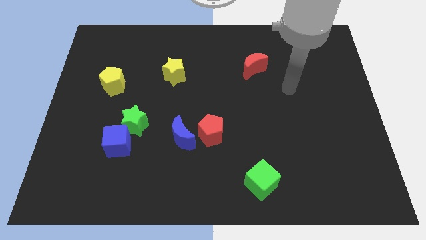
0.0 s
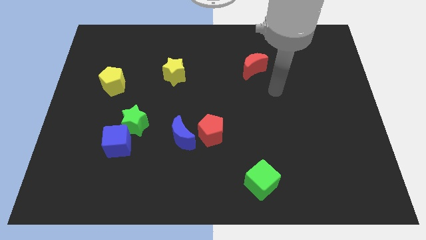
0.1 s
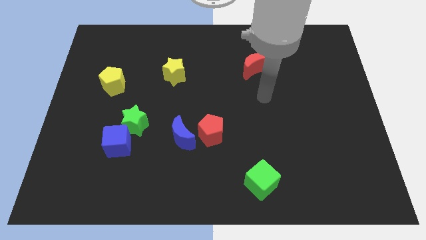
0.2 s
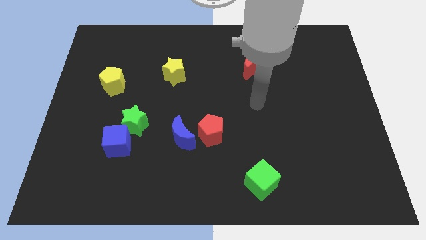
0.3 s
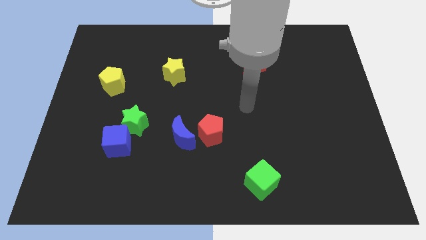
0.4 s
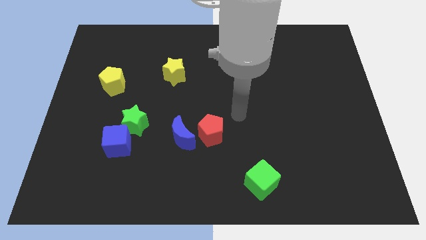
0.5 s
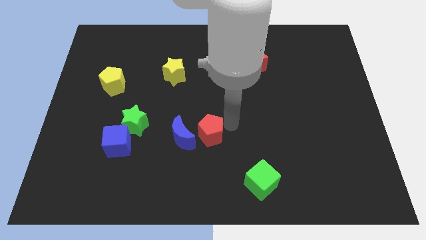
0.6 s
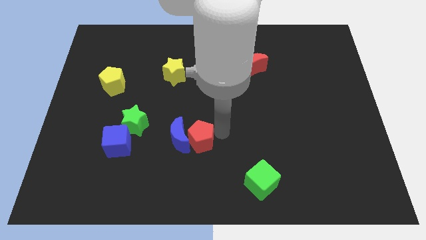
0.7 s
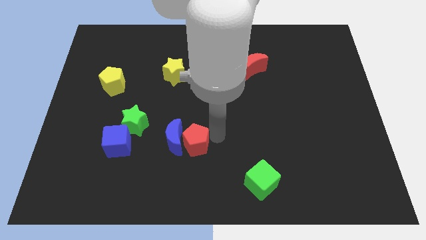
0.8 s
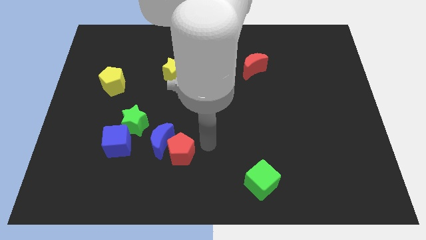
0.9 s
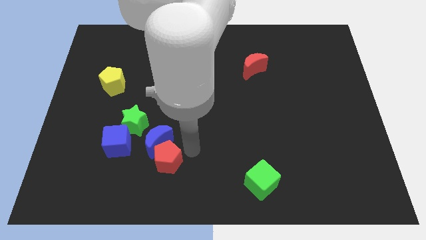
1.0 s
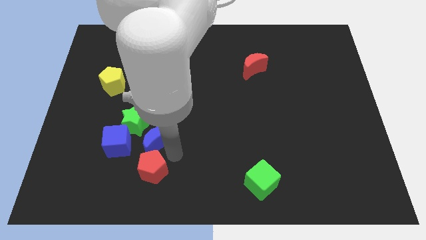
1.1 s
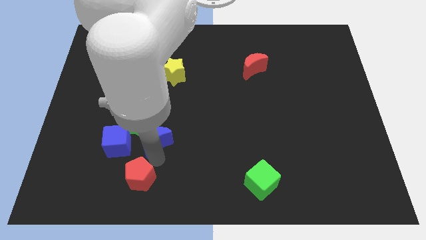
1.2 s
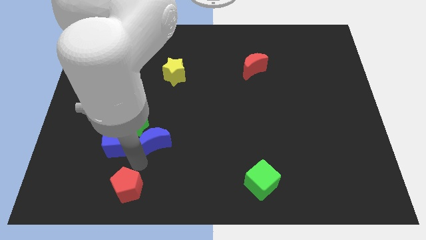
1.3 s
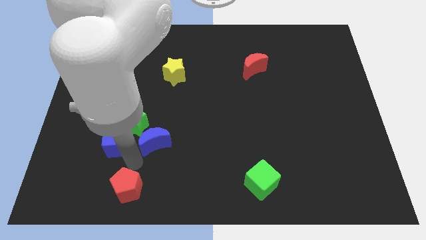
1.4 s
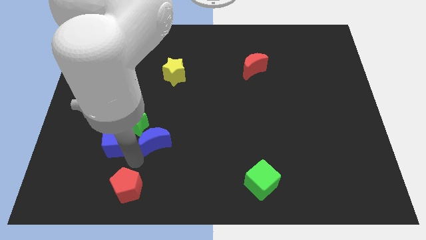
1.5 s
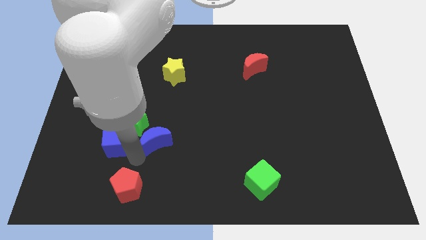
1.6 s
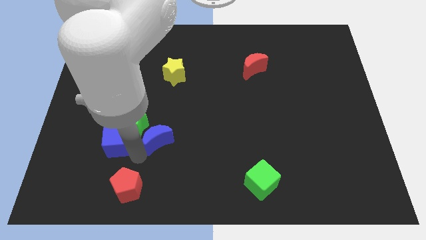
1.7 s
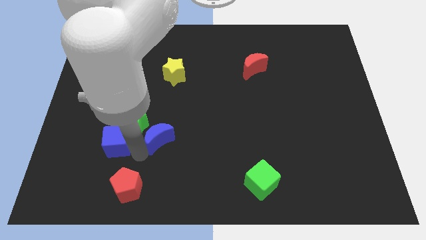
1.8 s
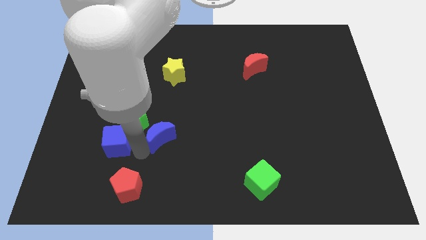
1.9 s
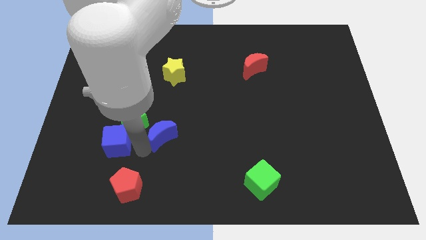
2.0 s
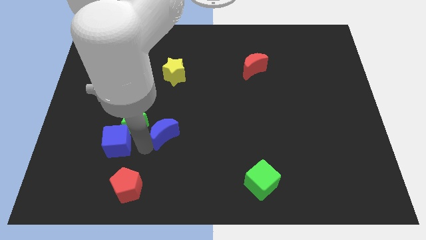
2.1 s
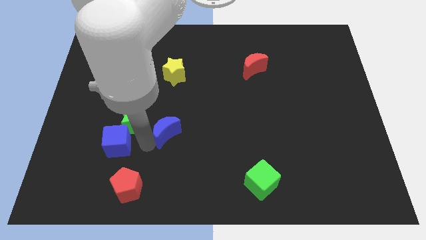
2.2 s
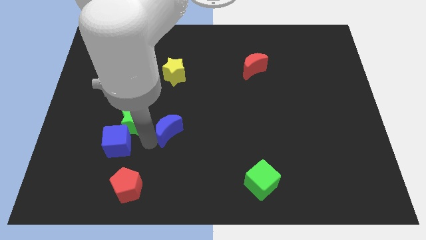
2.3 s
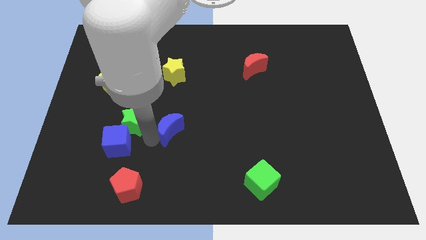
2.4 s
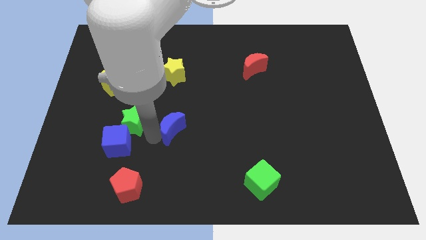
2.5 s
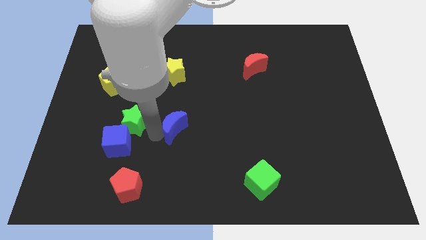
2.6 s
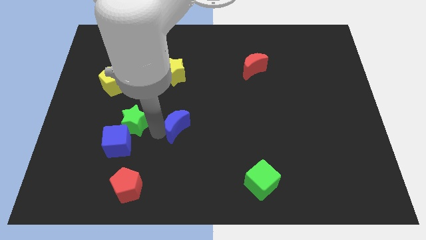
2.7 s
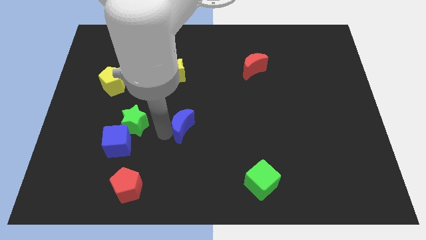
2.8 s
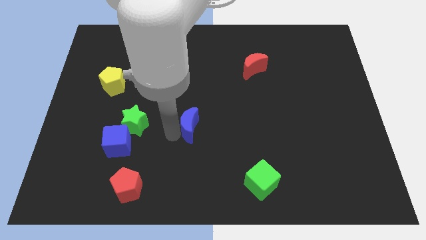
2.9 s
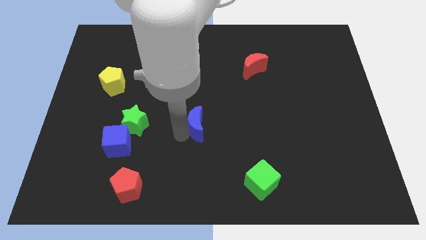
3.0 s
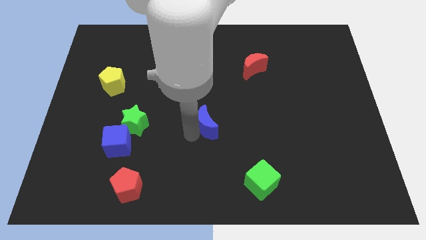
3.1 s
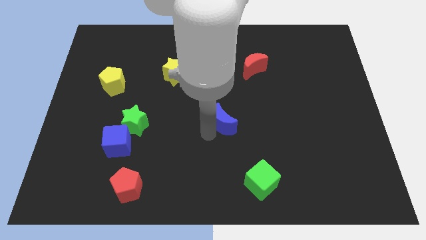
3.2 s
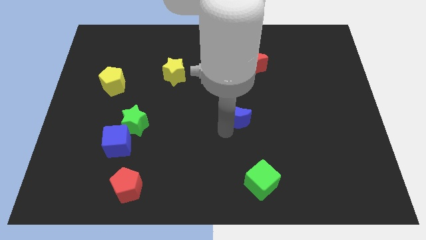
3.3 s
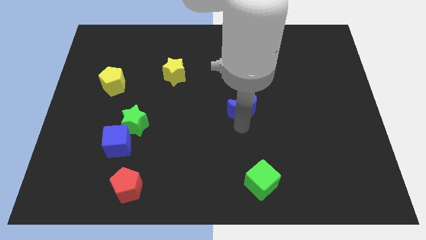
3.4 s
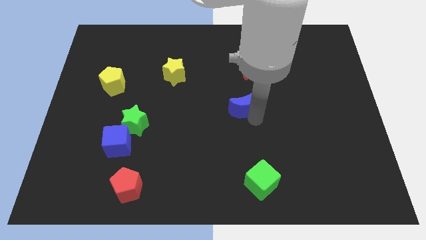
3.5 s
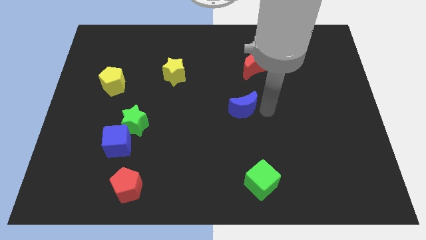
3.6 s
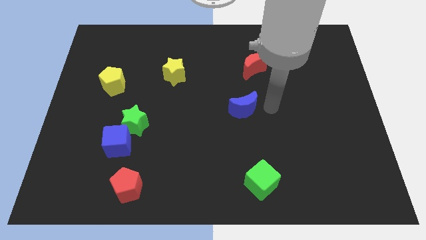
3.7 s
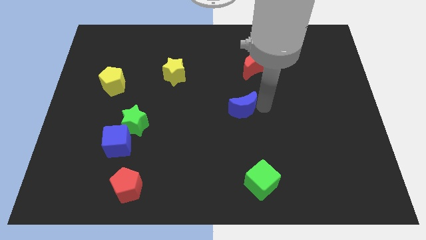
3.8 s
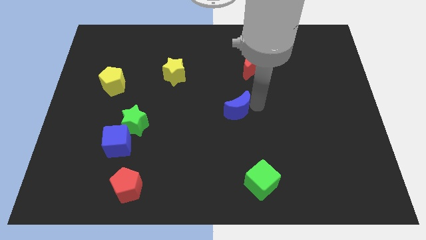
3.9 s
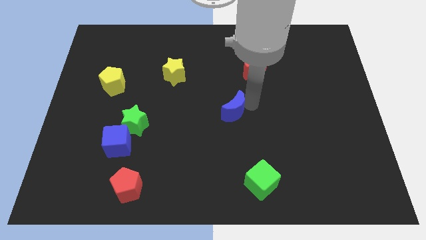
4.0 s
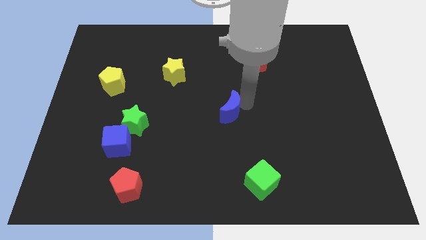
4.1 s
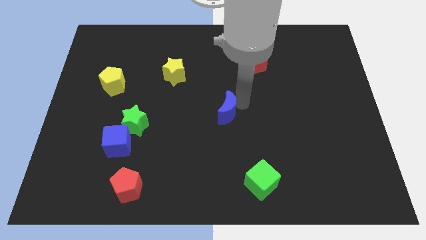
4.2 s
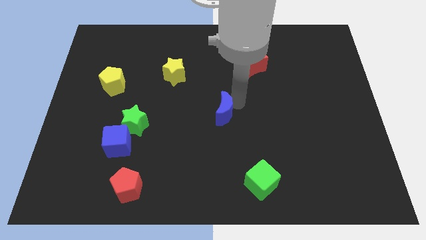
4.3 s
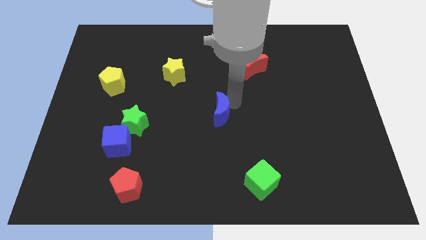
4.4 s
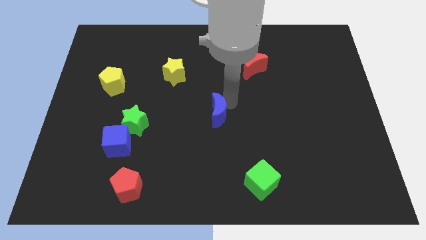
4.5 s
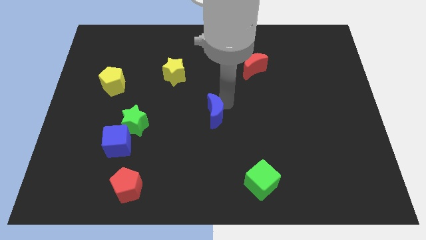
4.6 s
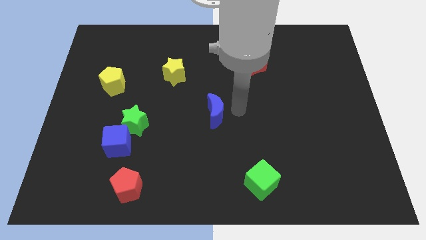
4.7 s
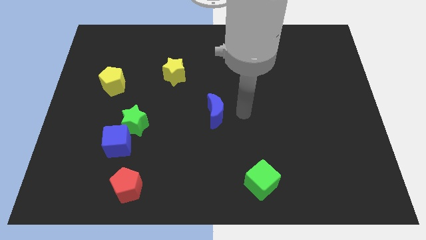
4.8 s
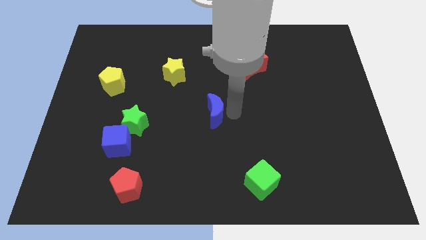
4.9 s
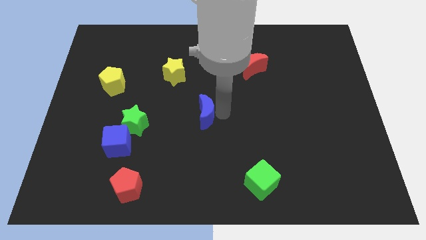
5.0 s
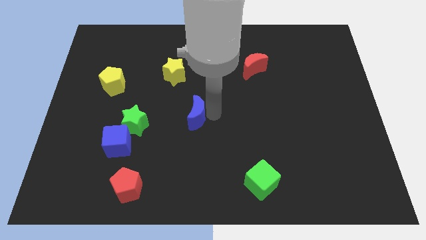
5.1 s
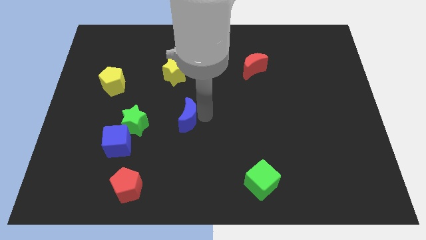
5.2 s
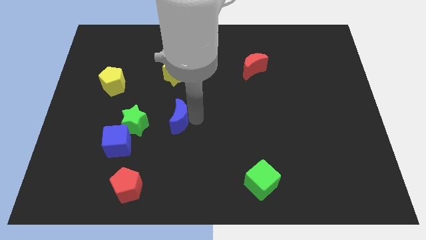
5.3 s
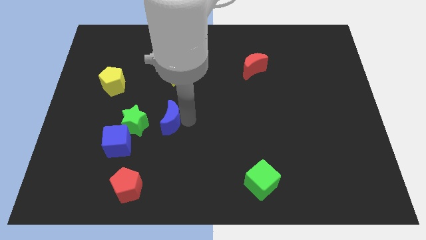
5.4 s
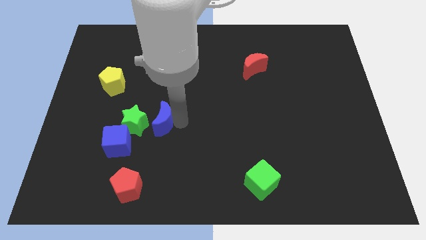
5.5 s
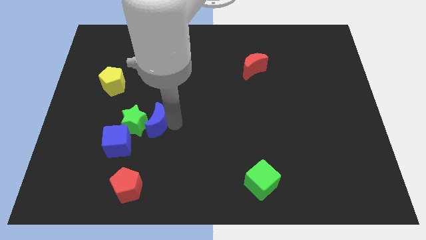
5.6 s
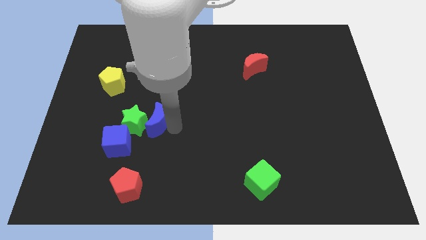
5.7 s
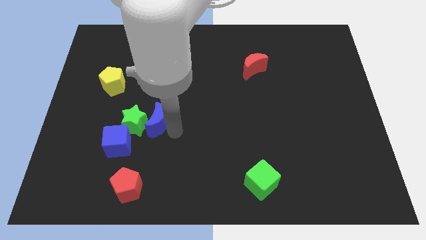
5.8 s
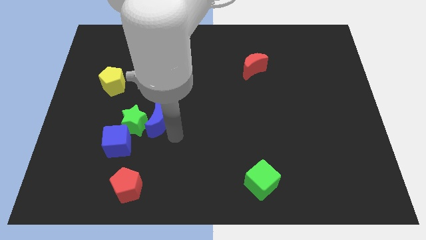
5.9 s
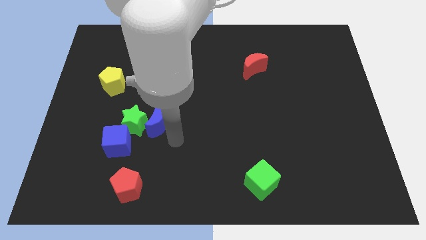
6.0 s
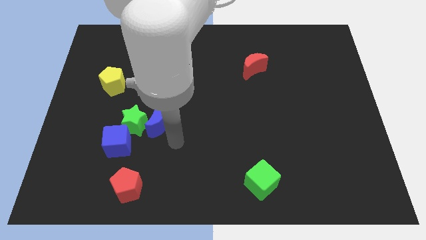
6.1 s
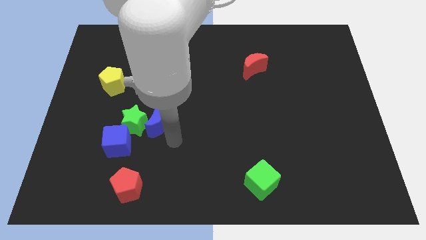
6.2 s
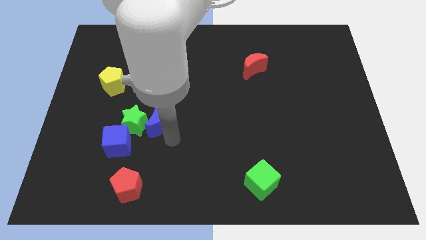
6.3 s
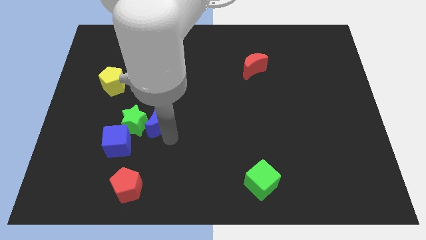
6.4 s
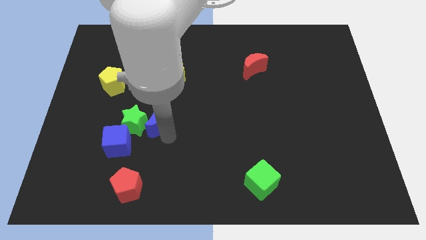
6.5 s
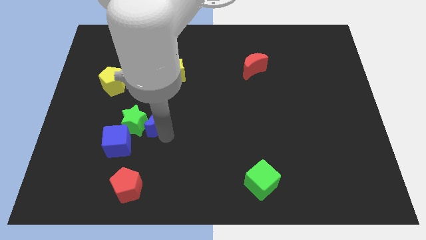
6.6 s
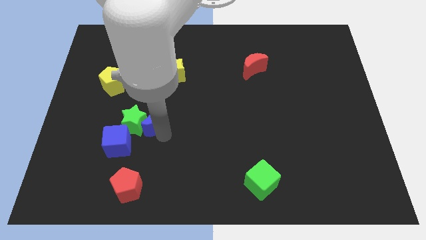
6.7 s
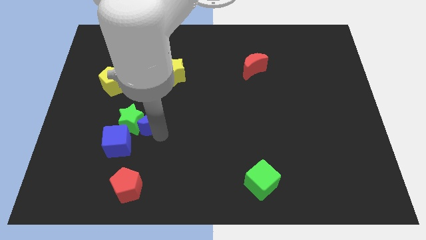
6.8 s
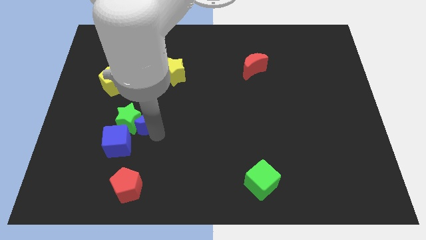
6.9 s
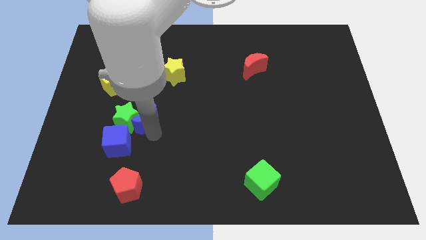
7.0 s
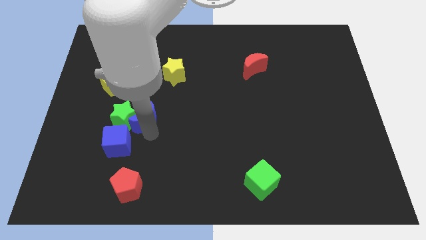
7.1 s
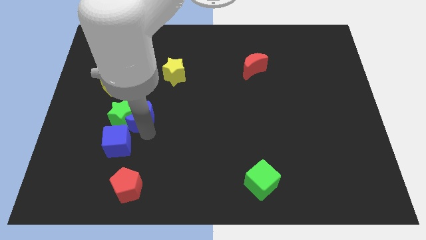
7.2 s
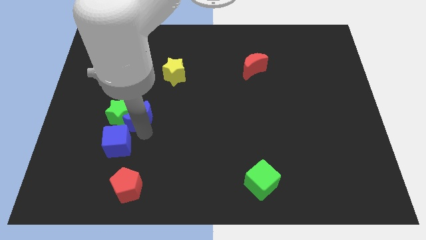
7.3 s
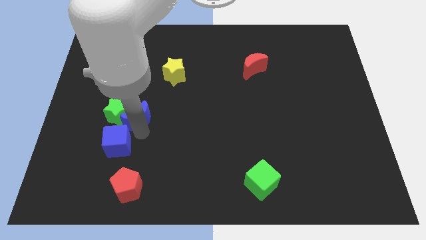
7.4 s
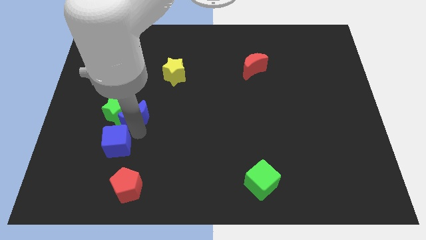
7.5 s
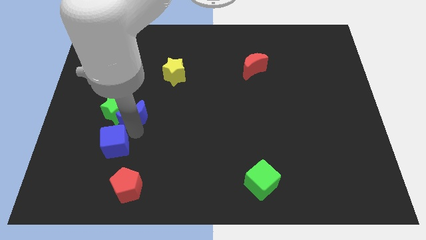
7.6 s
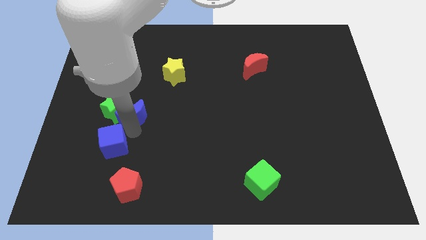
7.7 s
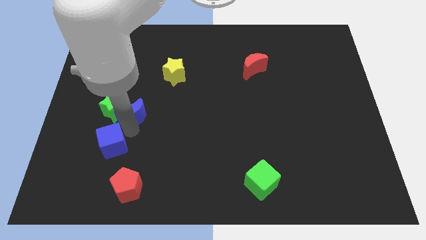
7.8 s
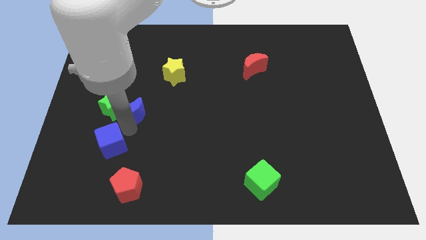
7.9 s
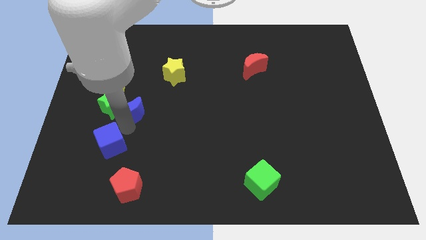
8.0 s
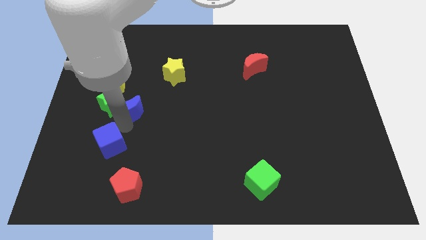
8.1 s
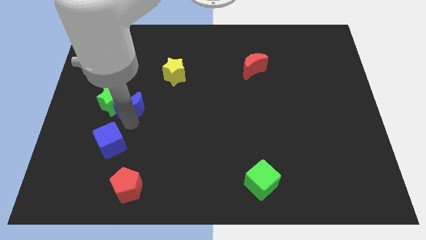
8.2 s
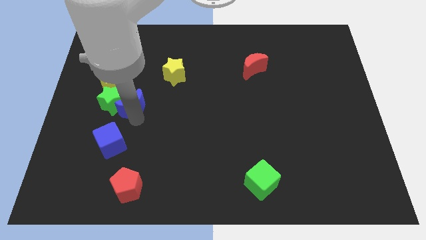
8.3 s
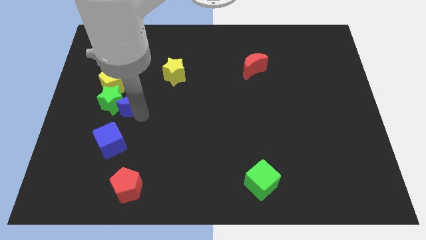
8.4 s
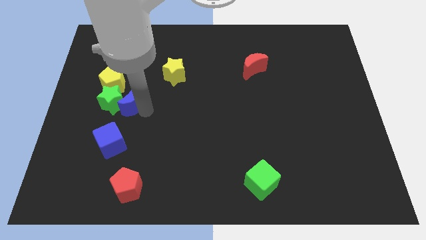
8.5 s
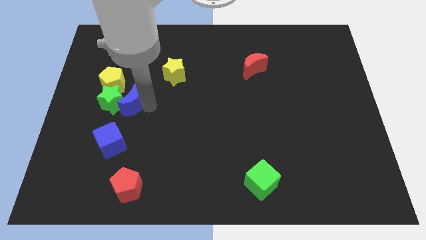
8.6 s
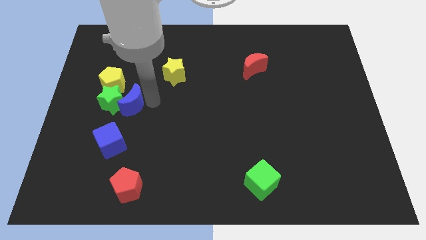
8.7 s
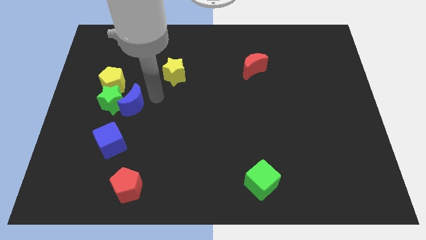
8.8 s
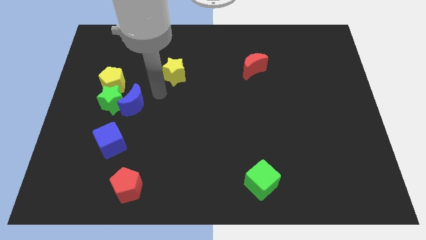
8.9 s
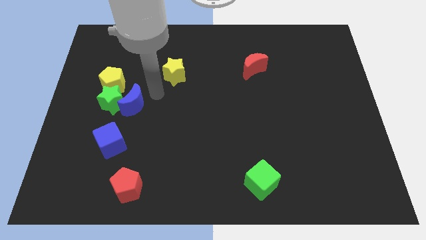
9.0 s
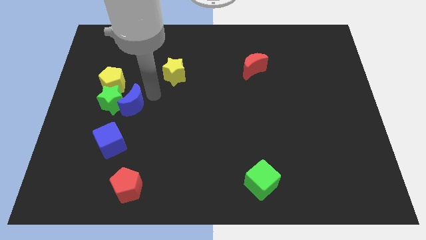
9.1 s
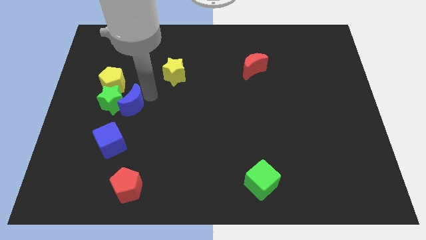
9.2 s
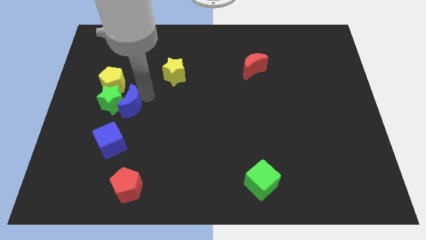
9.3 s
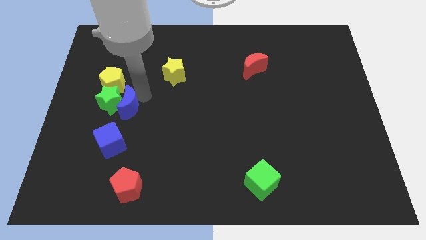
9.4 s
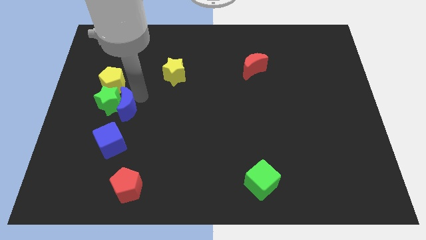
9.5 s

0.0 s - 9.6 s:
slide the blue moon to the bottom of the yellow pentagon
